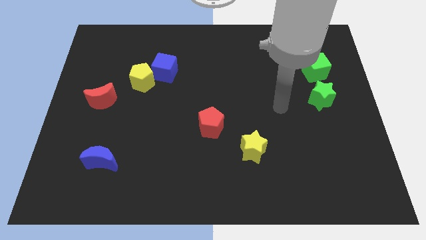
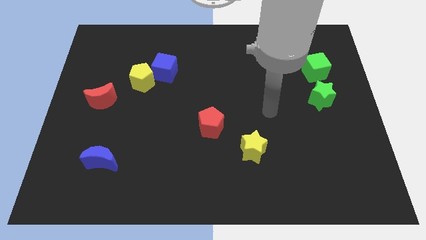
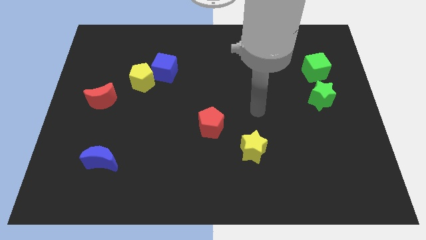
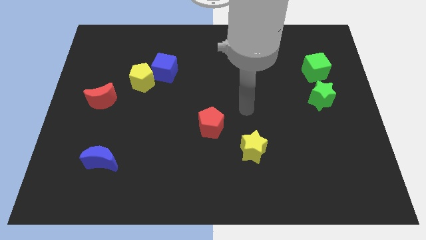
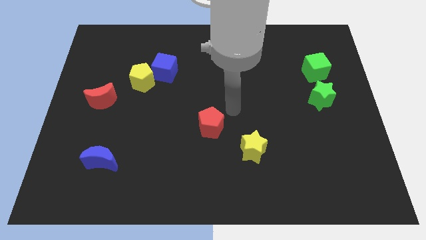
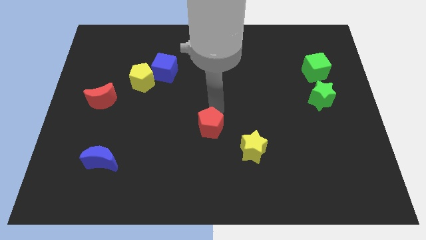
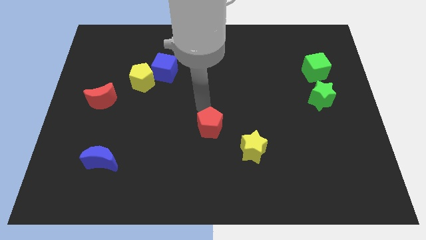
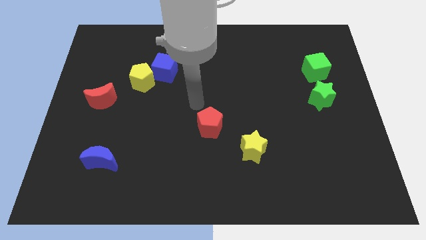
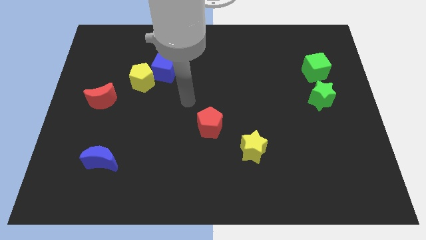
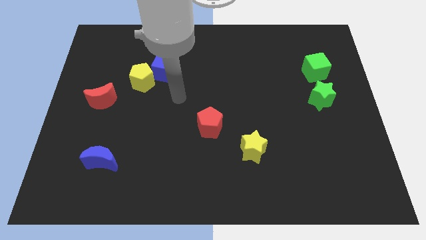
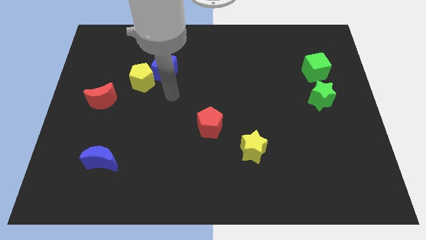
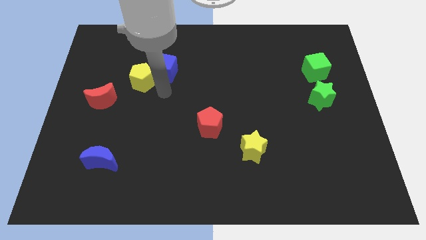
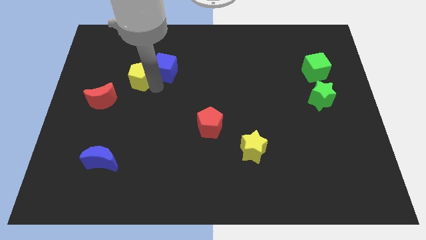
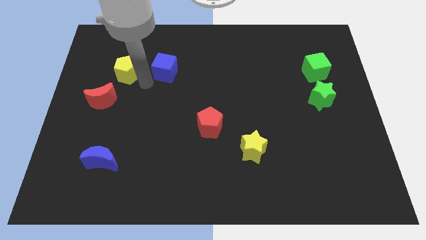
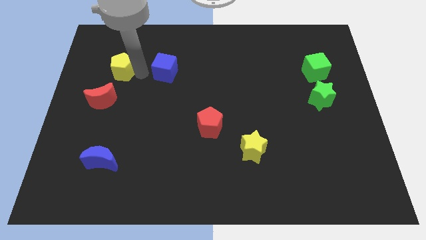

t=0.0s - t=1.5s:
move the blue cube away from the yellow pentagon

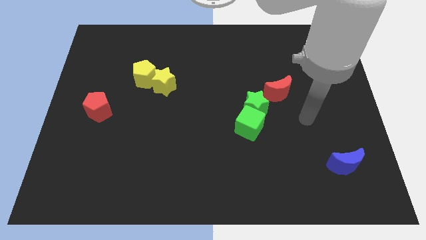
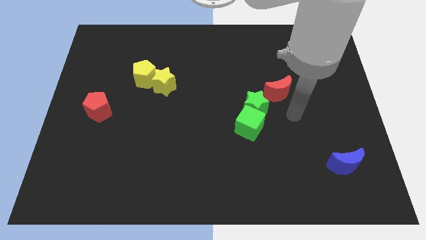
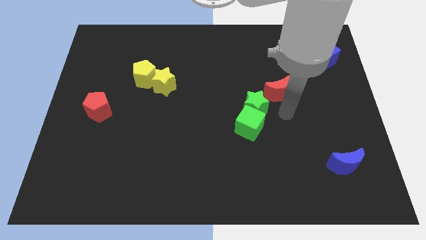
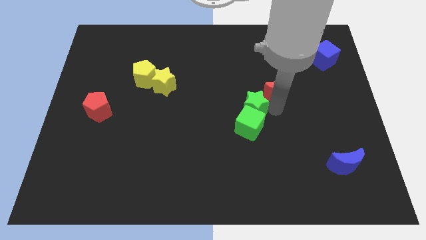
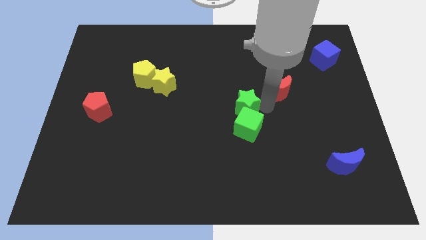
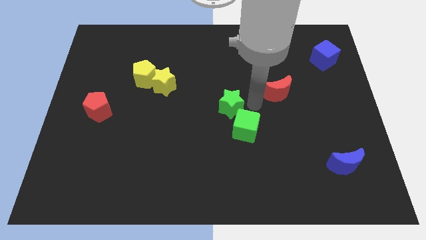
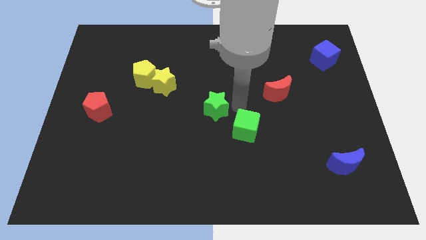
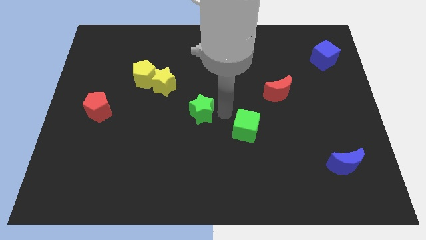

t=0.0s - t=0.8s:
move the green cube away from the green star

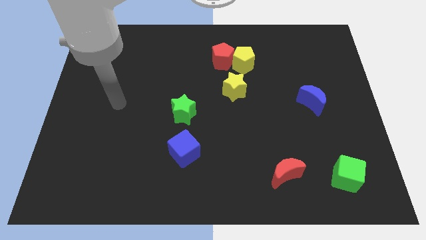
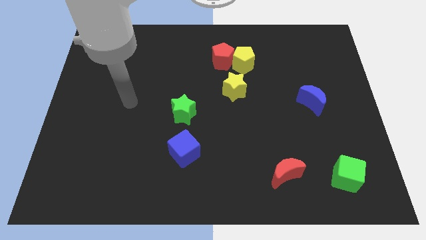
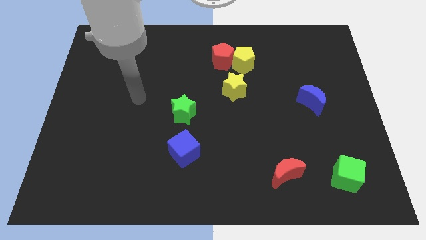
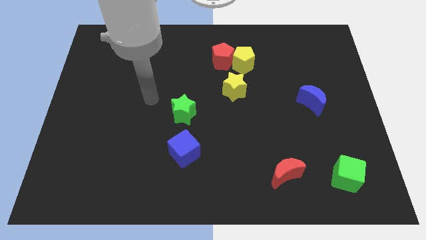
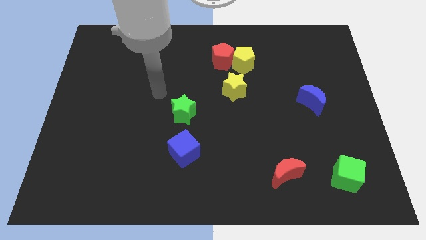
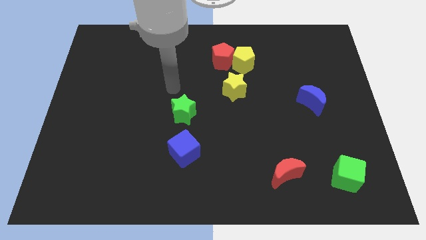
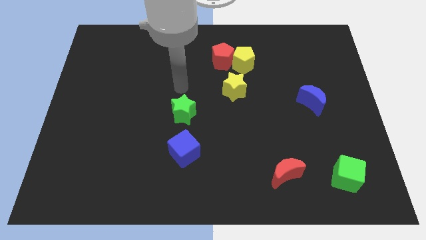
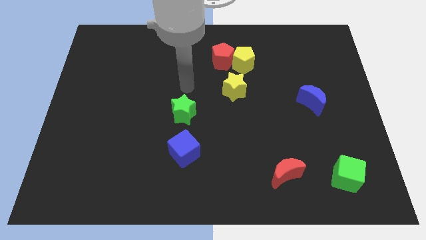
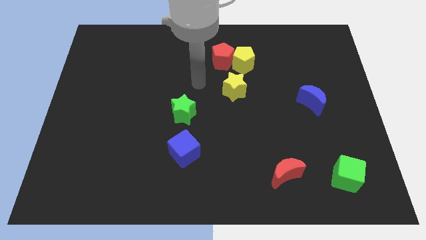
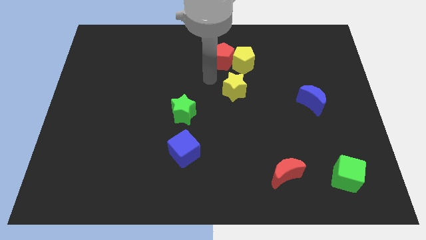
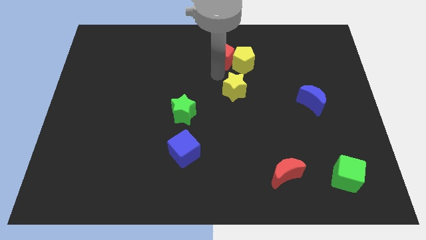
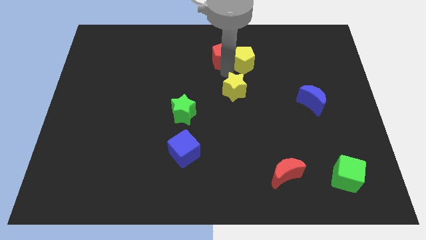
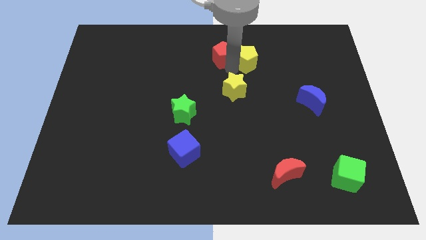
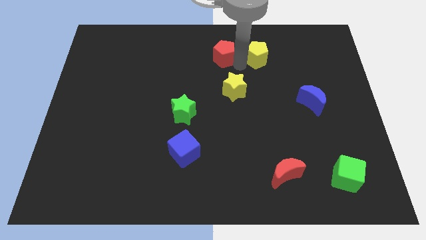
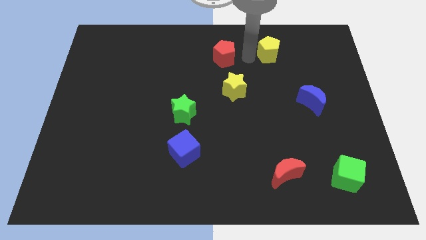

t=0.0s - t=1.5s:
separate the red pentagon from the yellow pentagon

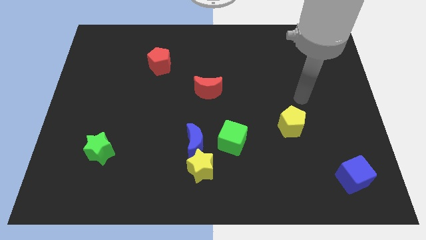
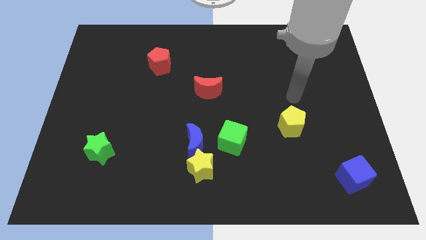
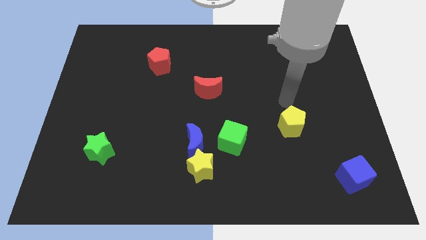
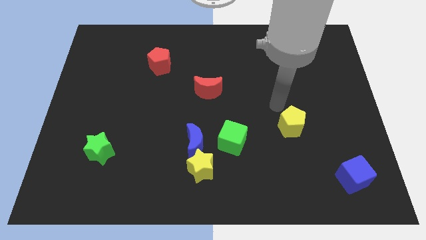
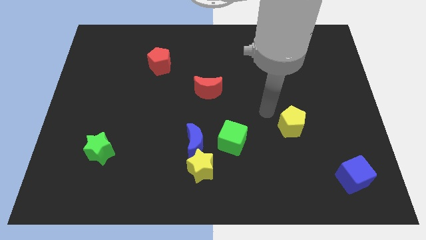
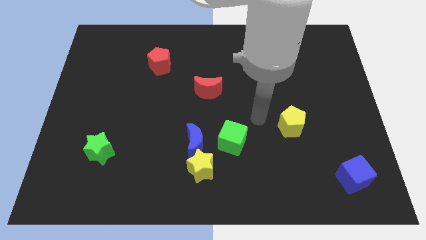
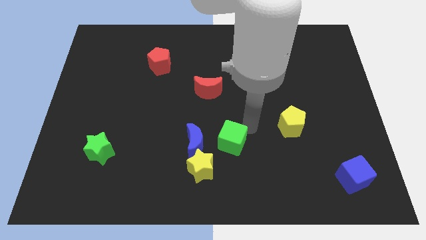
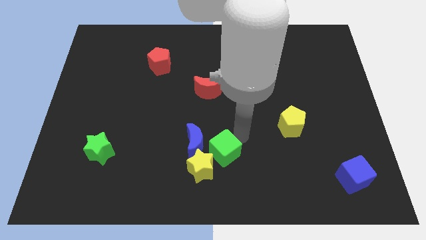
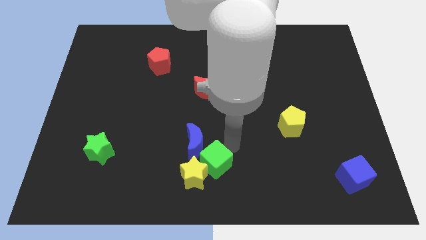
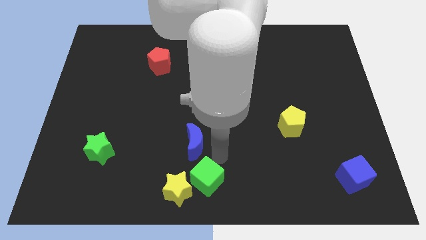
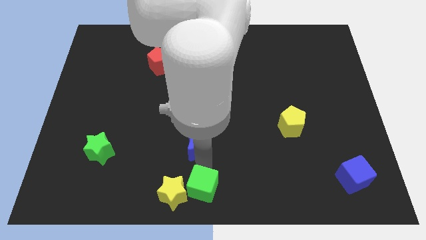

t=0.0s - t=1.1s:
pull the blue moon apart from the yellow star and green cube

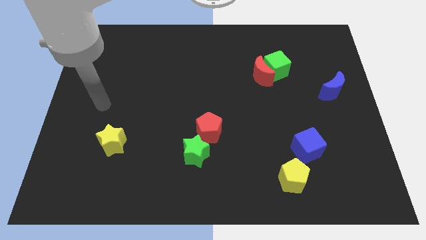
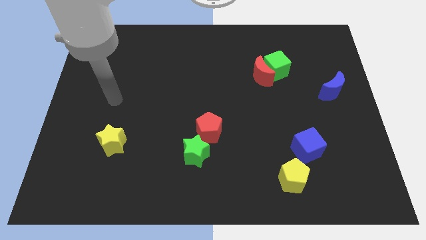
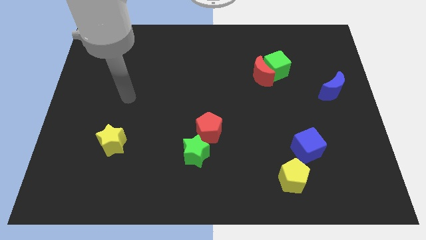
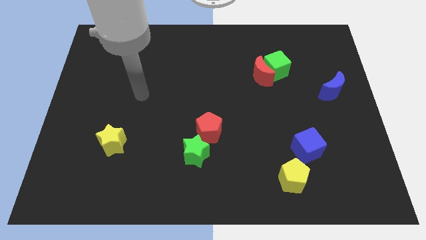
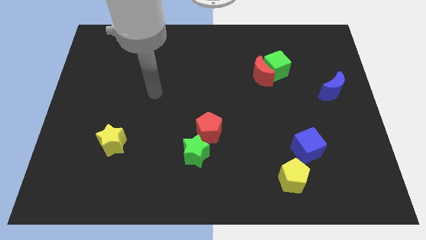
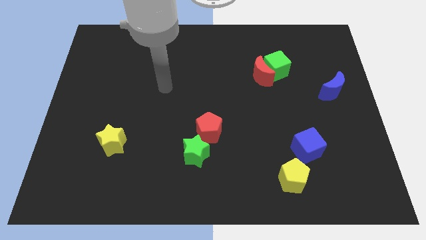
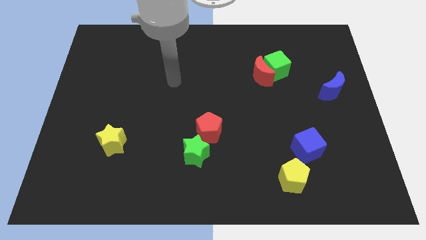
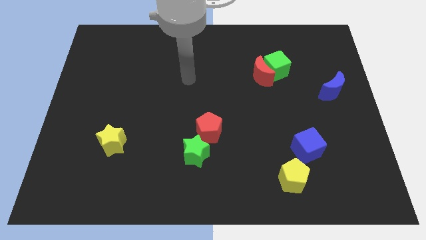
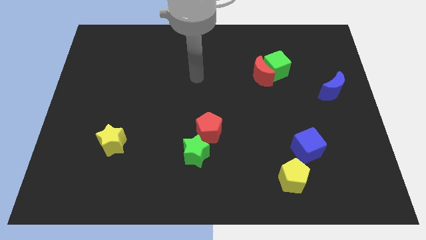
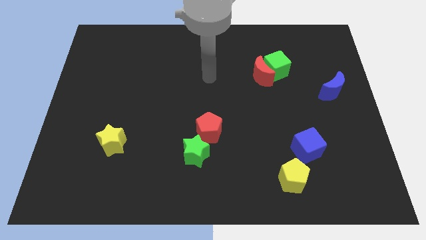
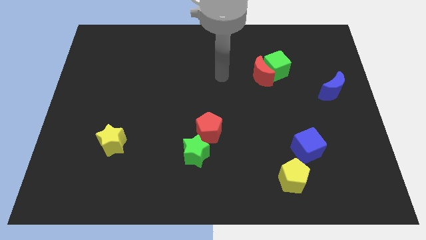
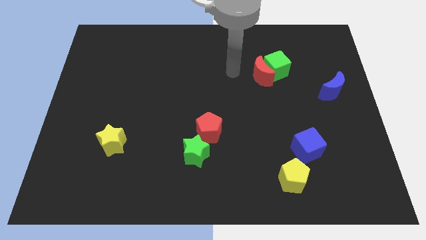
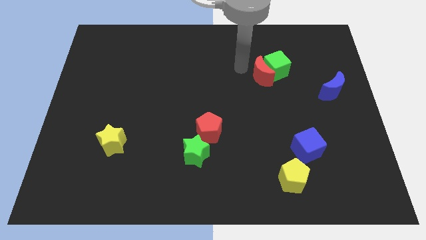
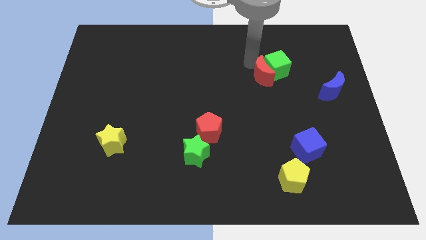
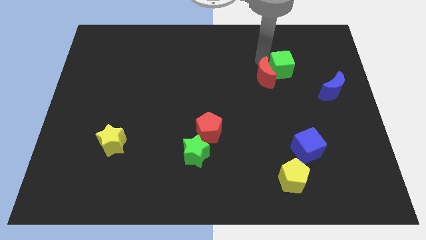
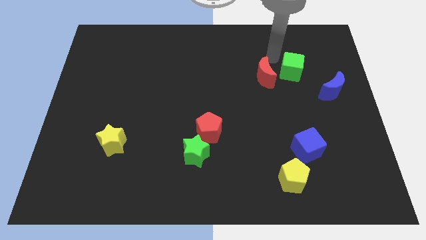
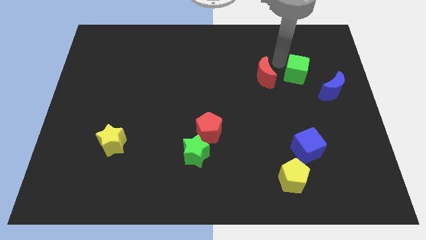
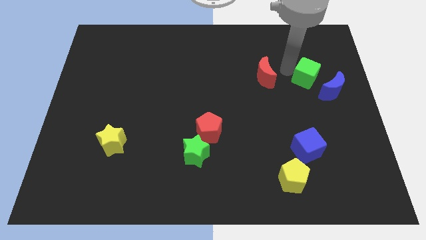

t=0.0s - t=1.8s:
move the red moon away from the green cube

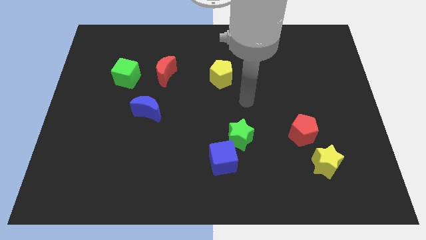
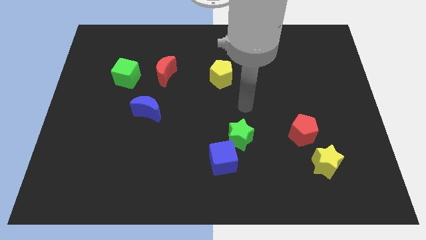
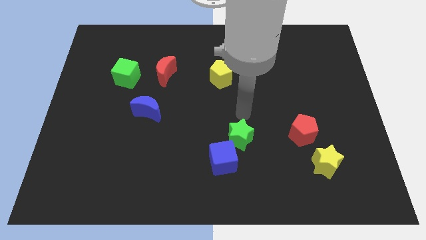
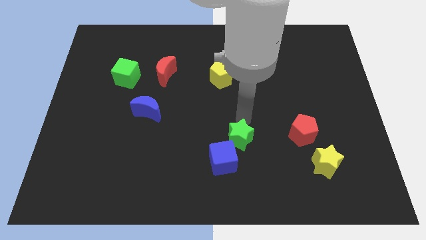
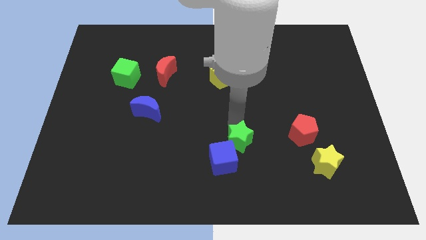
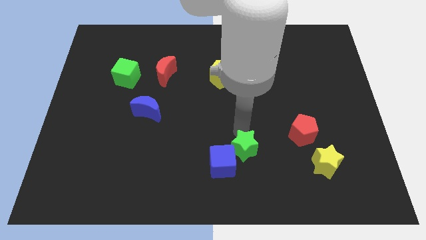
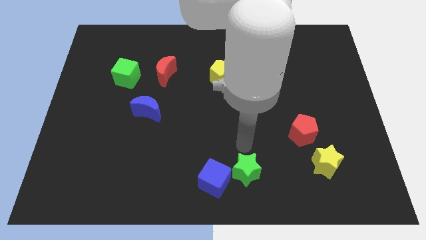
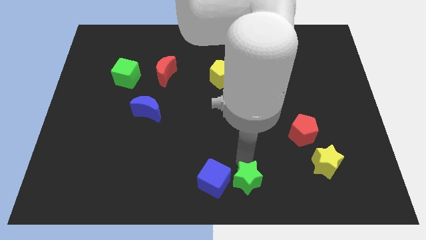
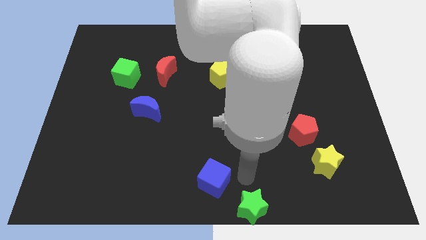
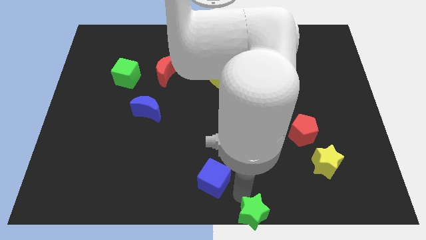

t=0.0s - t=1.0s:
separate the blue cube from the green star

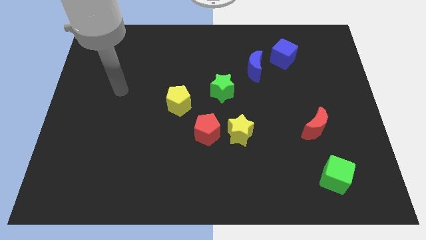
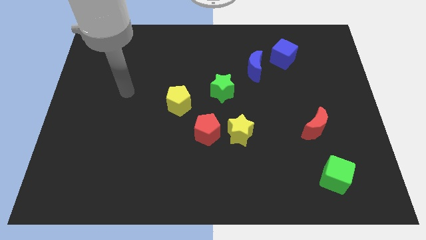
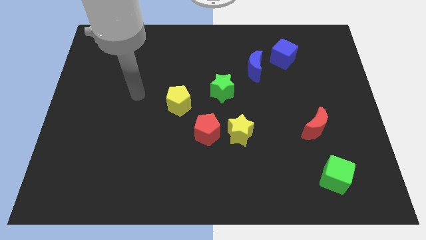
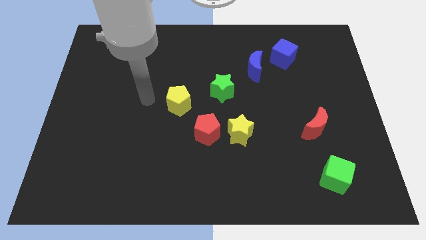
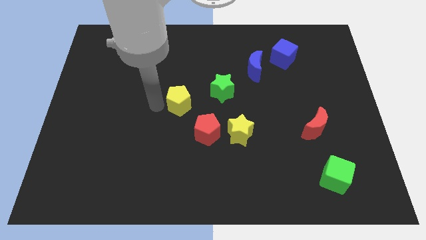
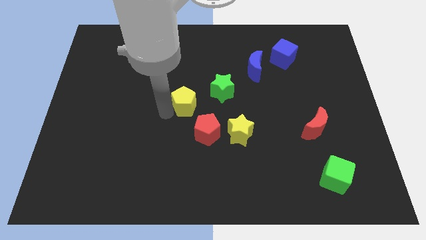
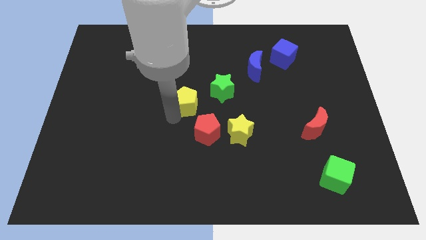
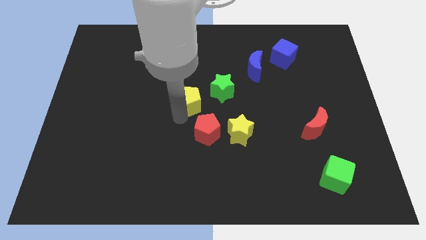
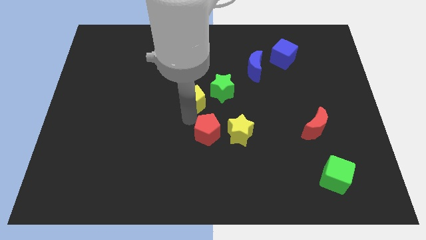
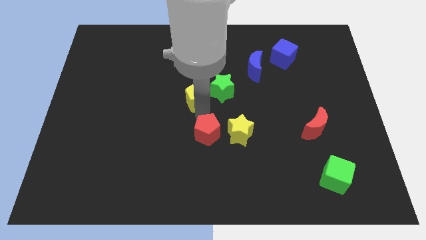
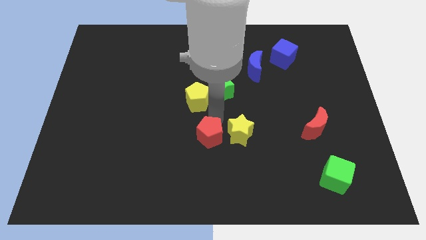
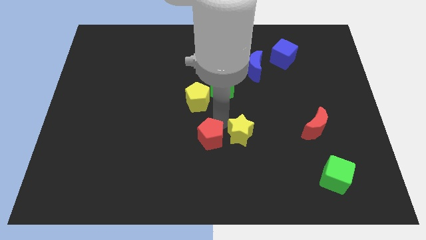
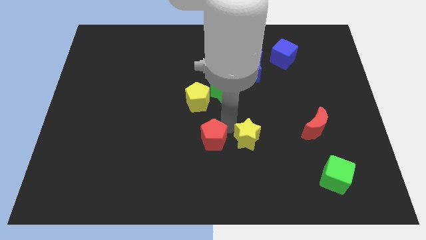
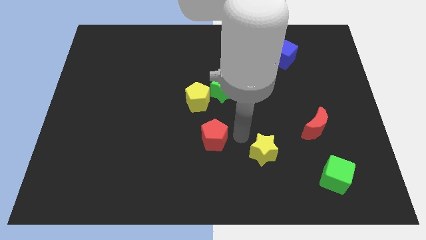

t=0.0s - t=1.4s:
pull the red pentagon apart from the yellow star

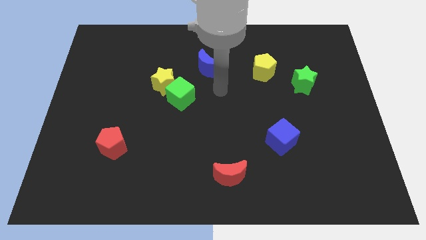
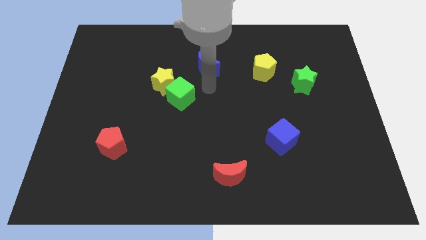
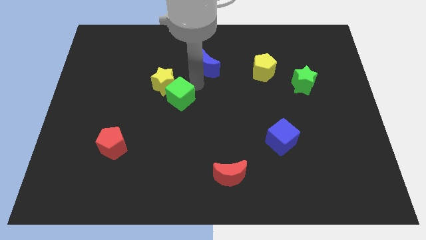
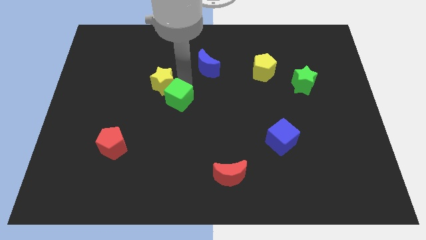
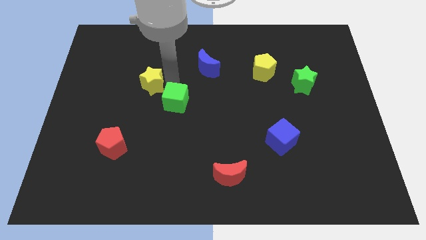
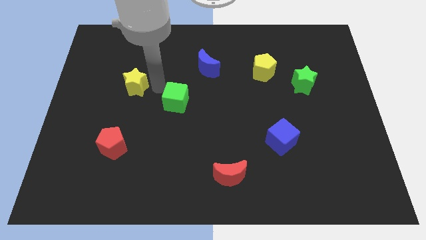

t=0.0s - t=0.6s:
separate the green cube from the yellow star
